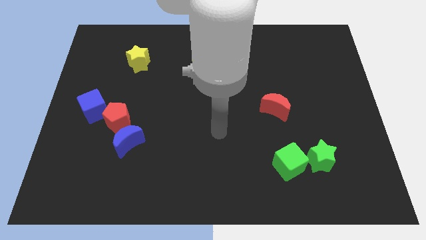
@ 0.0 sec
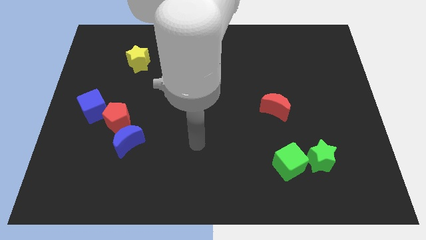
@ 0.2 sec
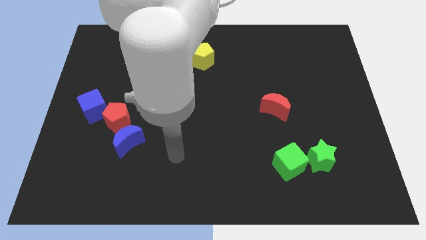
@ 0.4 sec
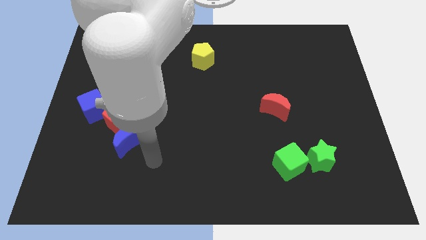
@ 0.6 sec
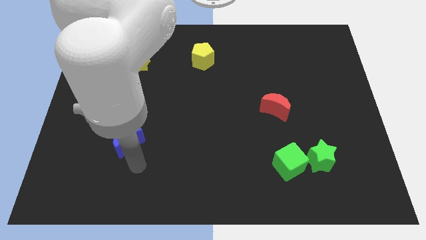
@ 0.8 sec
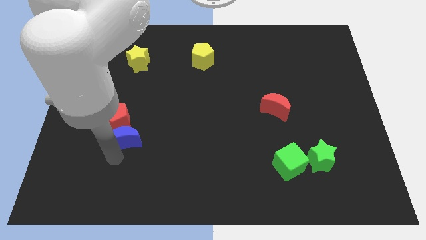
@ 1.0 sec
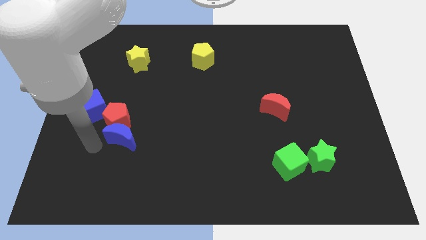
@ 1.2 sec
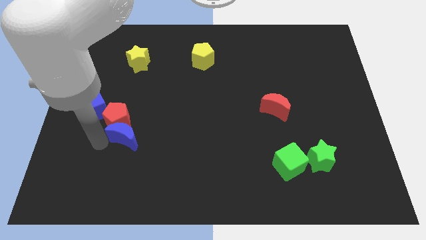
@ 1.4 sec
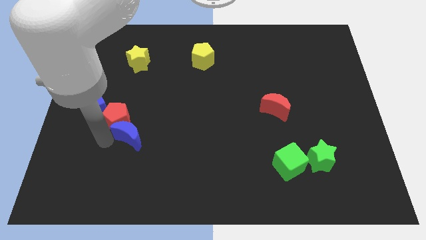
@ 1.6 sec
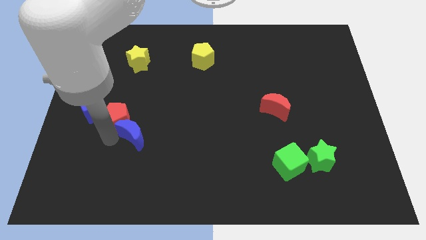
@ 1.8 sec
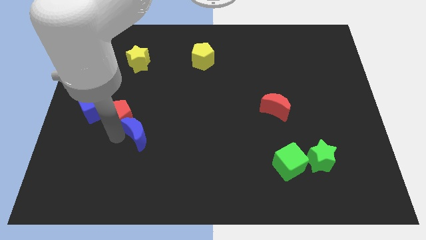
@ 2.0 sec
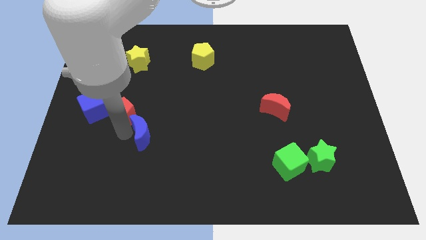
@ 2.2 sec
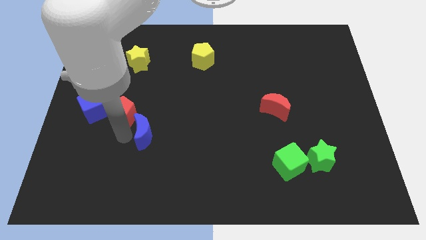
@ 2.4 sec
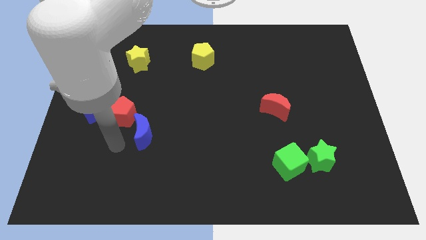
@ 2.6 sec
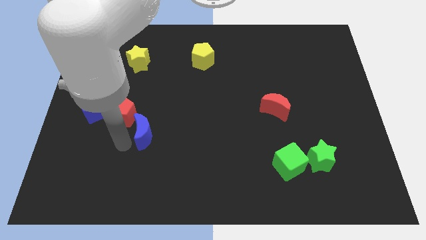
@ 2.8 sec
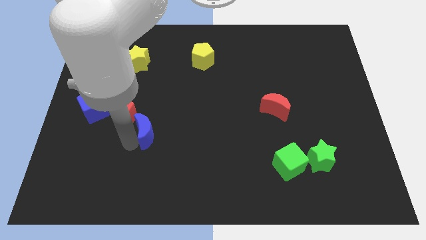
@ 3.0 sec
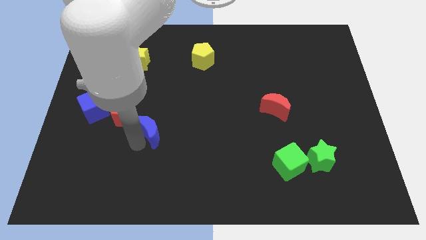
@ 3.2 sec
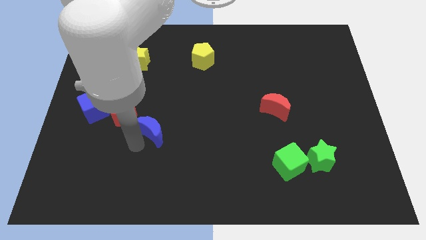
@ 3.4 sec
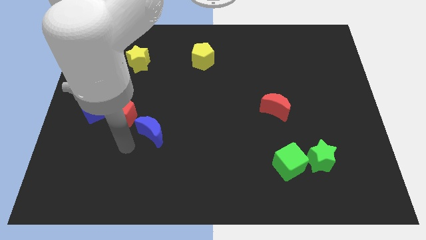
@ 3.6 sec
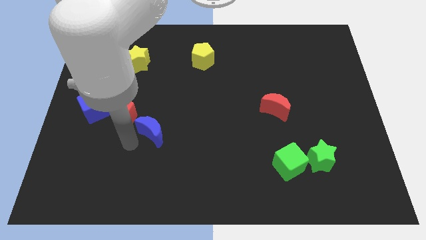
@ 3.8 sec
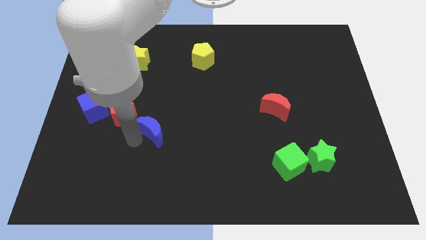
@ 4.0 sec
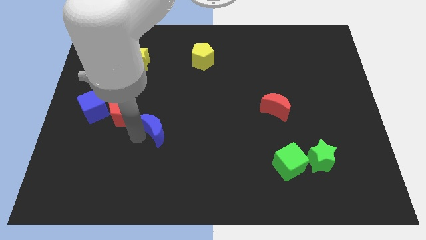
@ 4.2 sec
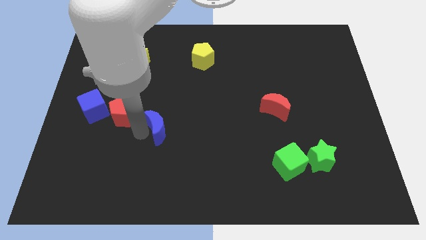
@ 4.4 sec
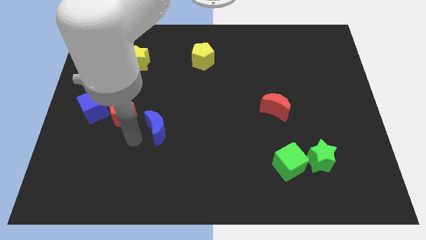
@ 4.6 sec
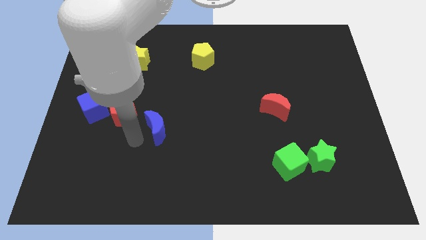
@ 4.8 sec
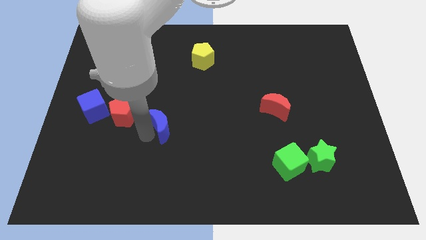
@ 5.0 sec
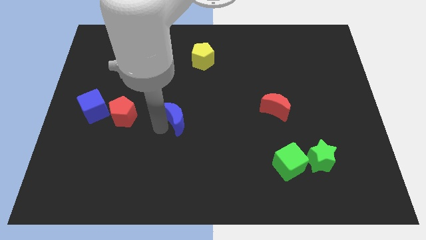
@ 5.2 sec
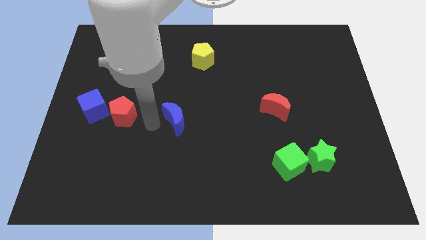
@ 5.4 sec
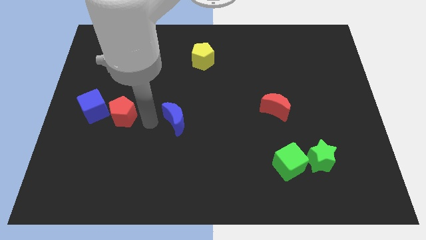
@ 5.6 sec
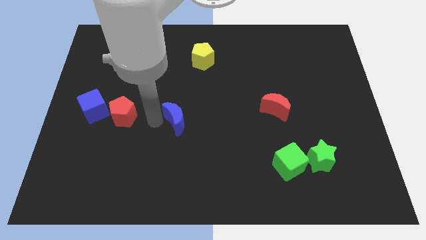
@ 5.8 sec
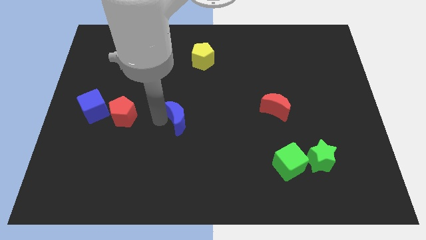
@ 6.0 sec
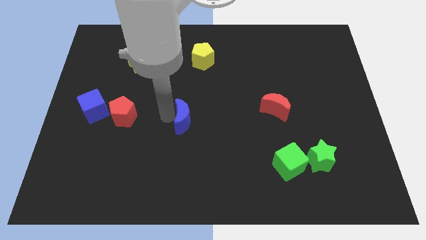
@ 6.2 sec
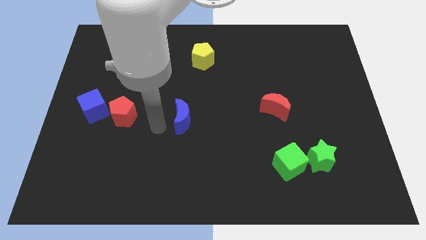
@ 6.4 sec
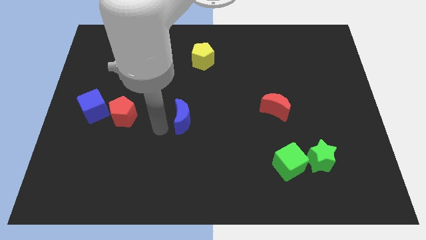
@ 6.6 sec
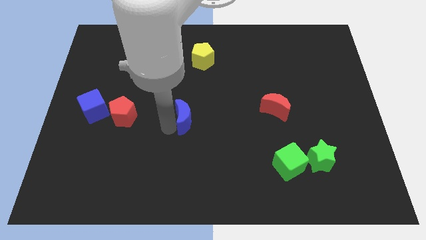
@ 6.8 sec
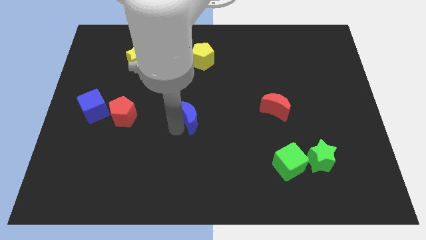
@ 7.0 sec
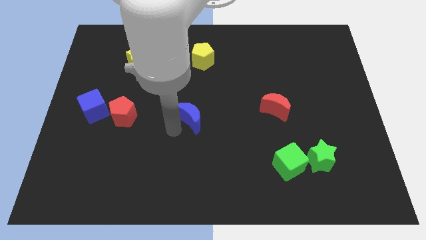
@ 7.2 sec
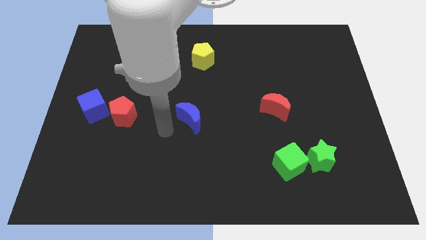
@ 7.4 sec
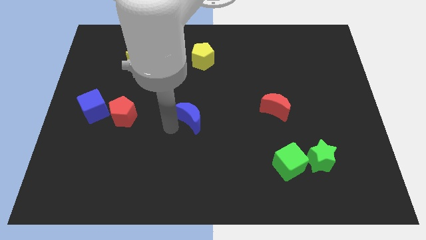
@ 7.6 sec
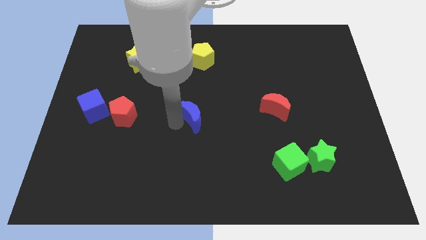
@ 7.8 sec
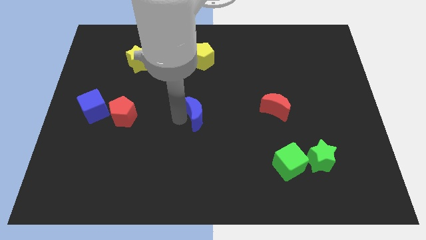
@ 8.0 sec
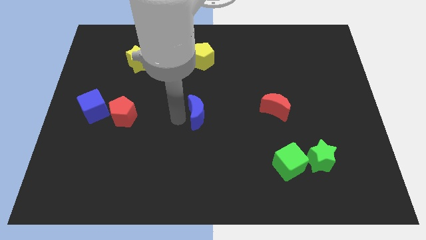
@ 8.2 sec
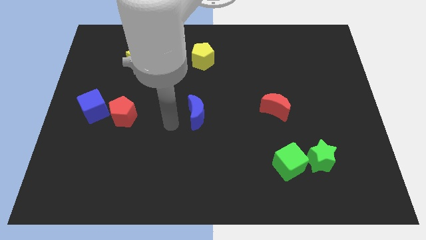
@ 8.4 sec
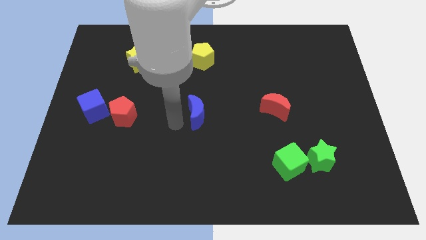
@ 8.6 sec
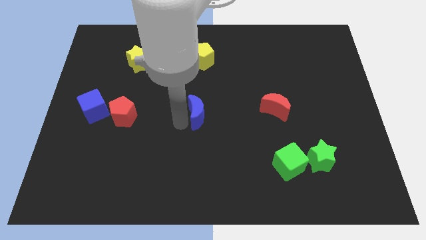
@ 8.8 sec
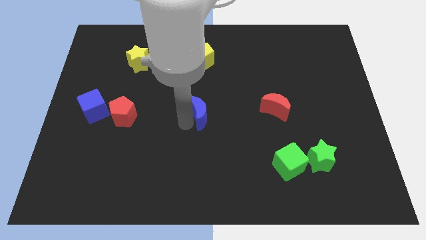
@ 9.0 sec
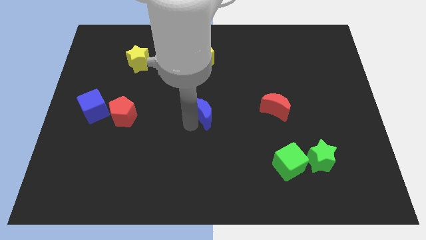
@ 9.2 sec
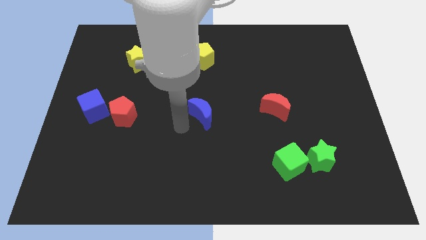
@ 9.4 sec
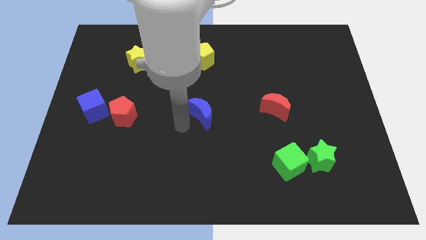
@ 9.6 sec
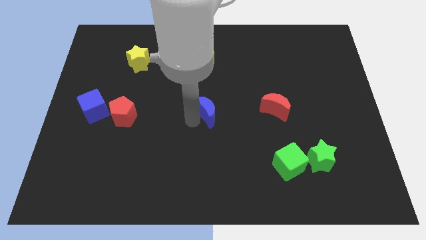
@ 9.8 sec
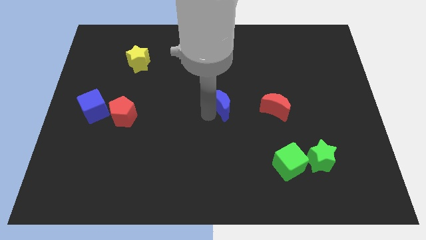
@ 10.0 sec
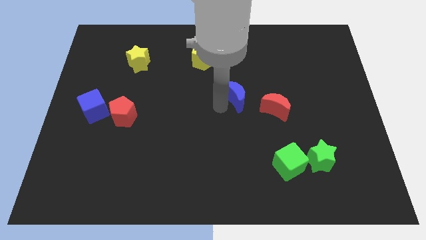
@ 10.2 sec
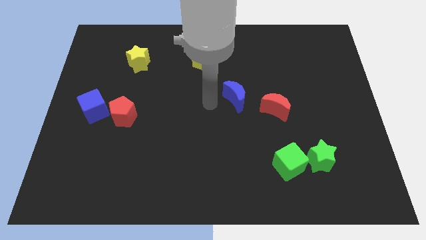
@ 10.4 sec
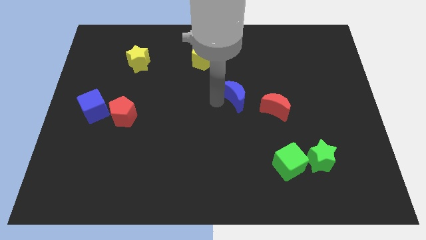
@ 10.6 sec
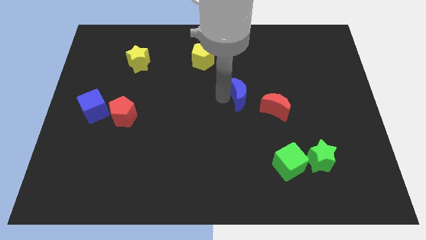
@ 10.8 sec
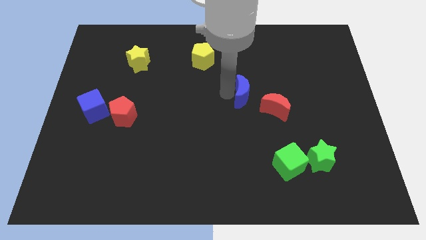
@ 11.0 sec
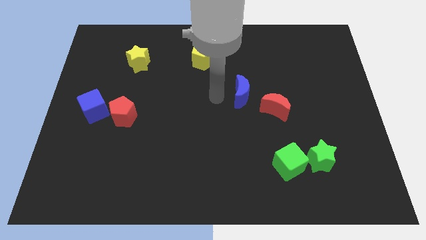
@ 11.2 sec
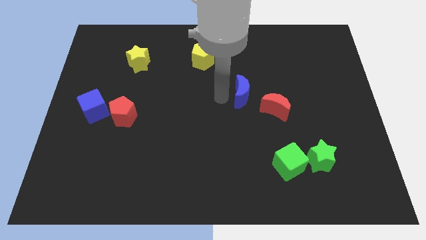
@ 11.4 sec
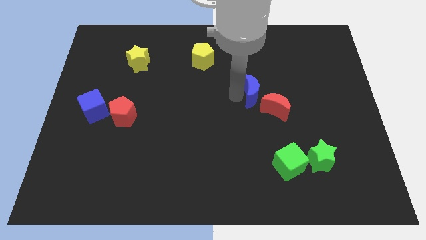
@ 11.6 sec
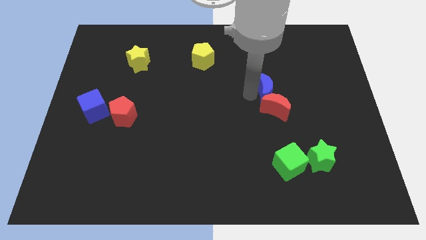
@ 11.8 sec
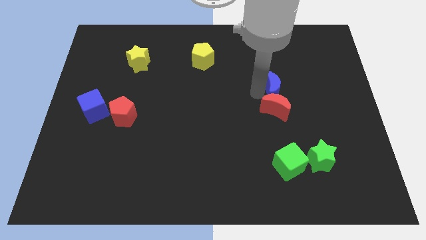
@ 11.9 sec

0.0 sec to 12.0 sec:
push the blue moon diagonally up and to the right of the red moon

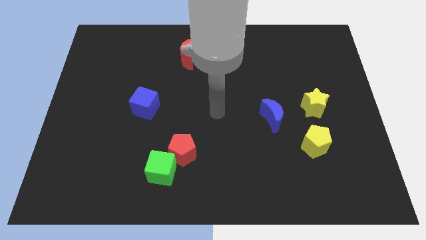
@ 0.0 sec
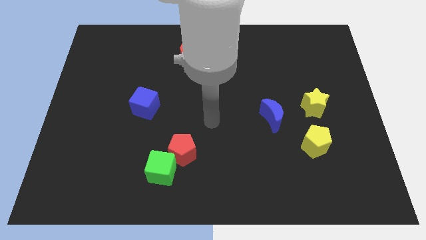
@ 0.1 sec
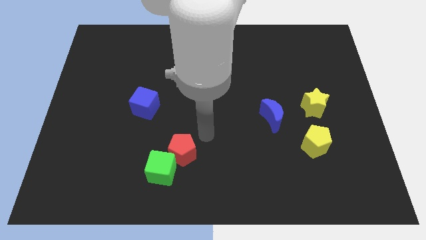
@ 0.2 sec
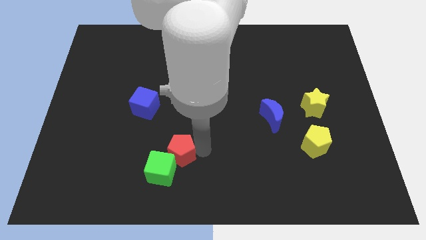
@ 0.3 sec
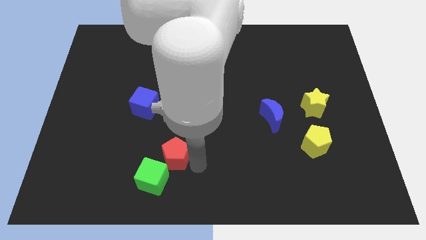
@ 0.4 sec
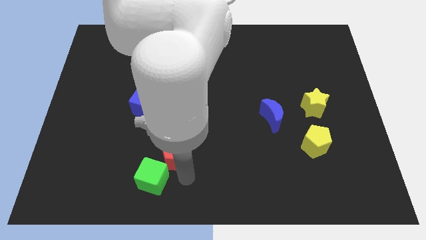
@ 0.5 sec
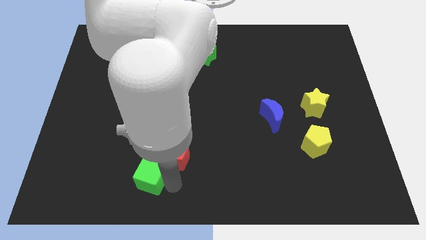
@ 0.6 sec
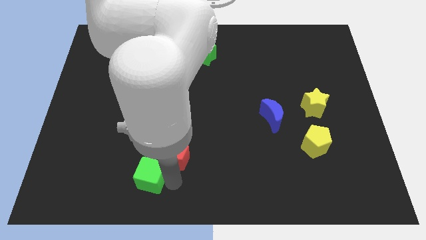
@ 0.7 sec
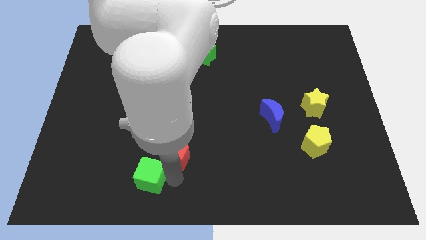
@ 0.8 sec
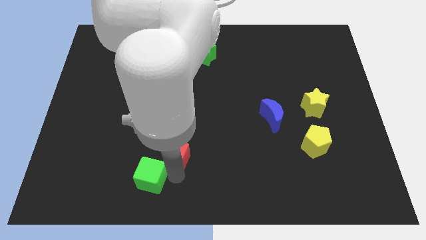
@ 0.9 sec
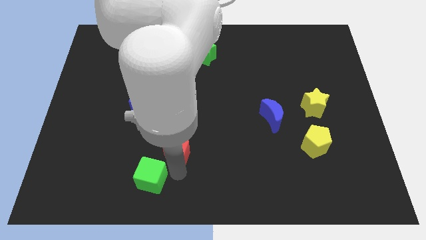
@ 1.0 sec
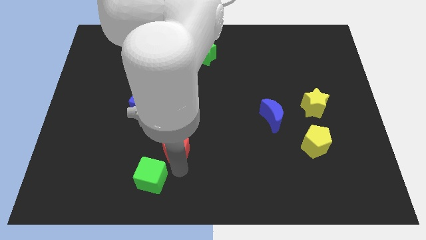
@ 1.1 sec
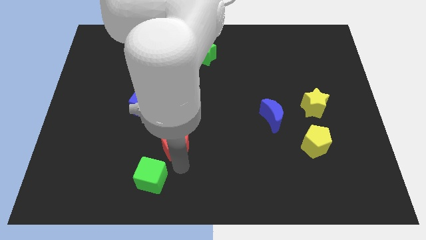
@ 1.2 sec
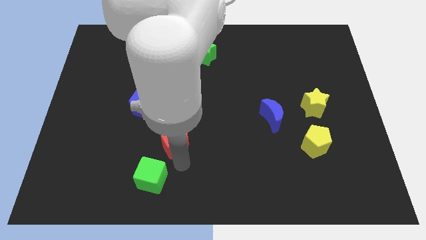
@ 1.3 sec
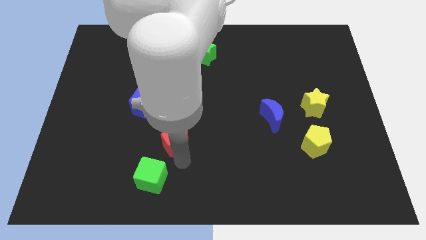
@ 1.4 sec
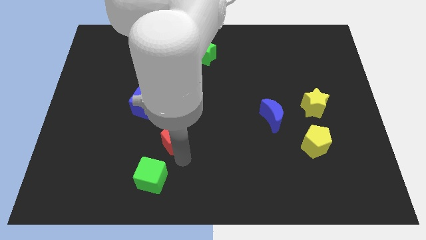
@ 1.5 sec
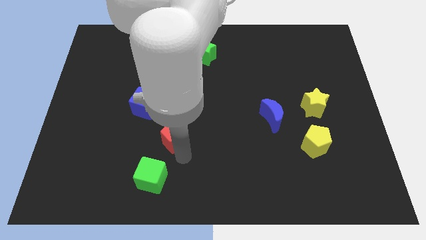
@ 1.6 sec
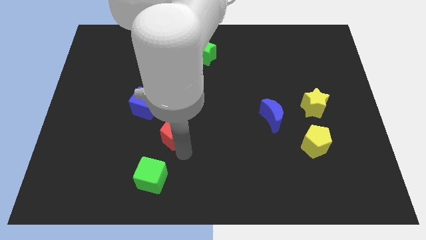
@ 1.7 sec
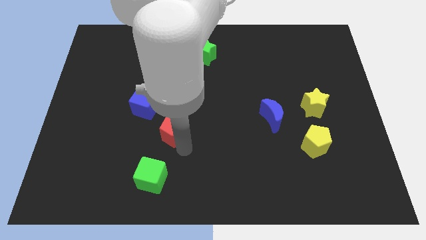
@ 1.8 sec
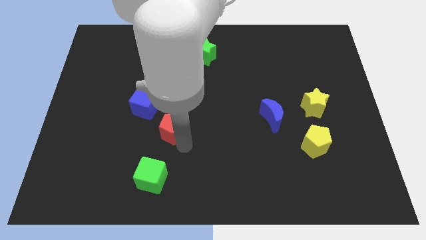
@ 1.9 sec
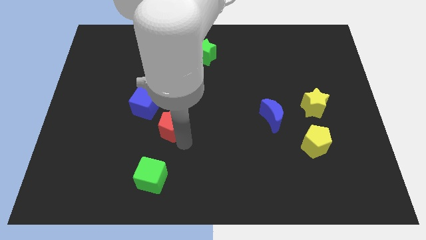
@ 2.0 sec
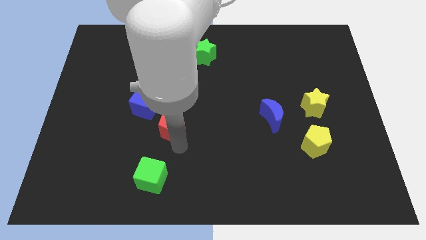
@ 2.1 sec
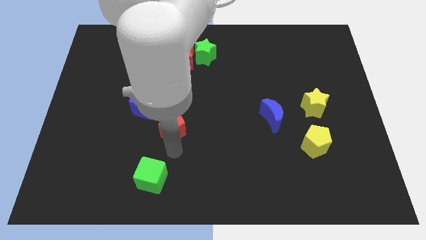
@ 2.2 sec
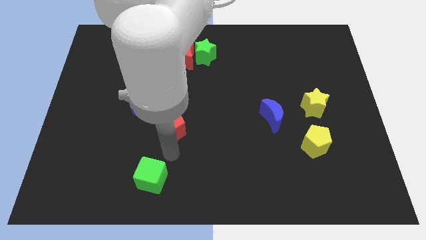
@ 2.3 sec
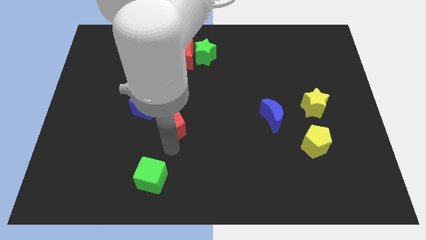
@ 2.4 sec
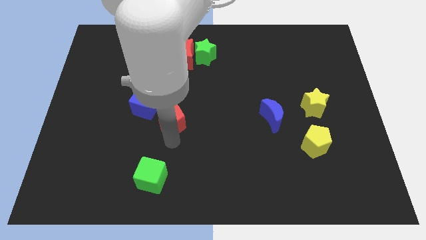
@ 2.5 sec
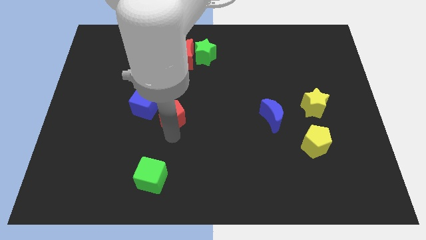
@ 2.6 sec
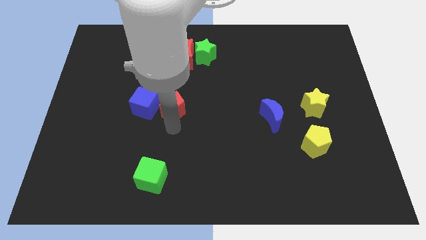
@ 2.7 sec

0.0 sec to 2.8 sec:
put the red pentagon to the top right side of the blue cube
